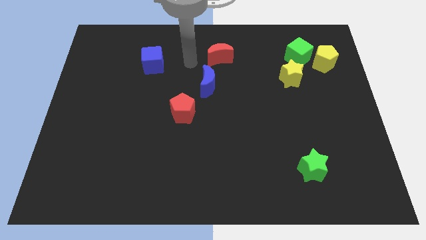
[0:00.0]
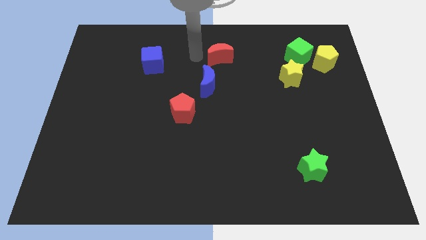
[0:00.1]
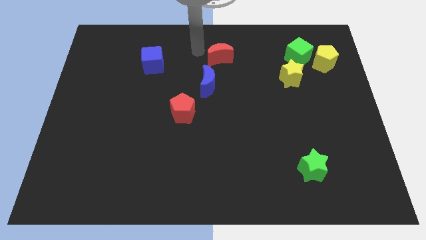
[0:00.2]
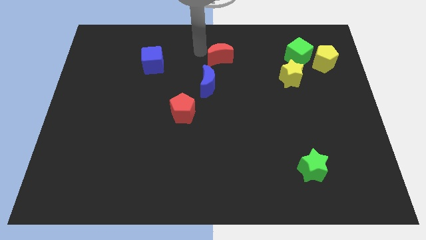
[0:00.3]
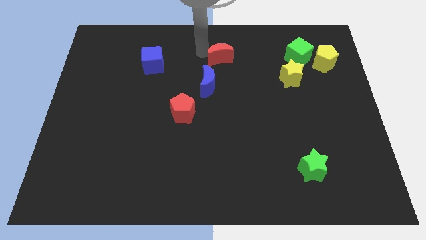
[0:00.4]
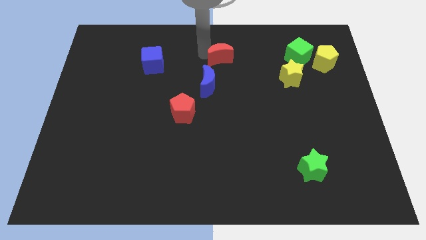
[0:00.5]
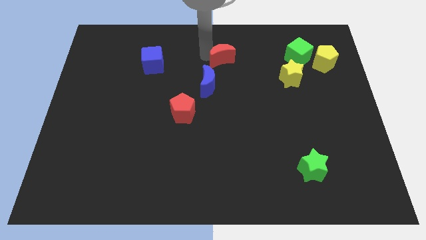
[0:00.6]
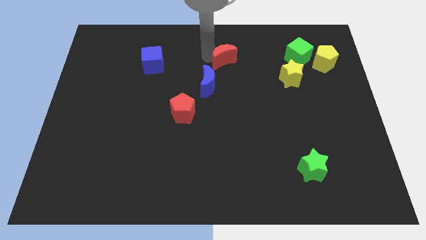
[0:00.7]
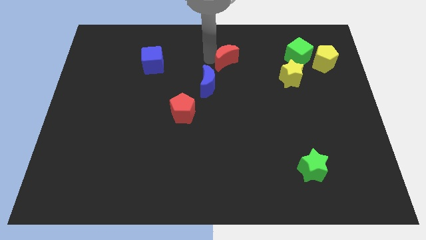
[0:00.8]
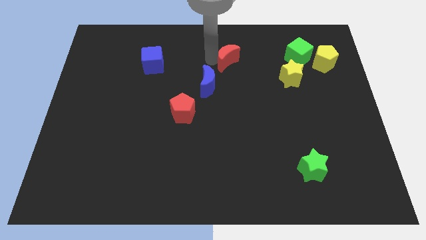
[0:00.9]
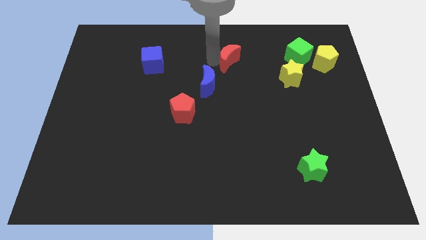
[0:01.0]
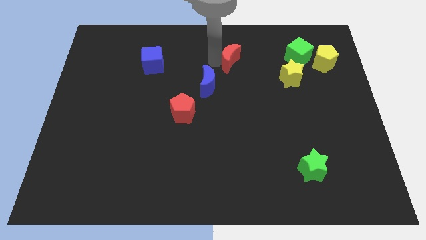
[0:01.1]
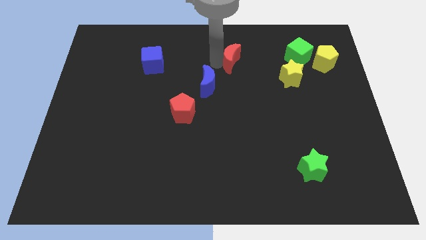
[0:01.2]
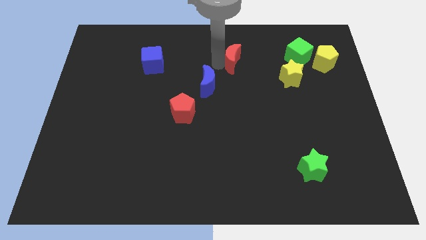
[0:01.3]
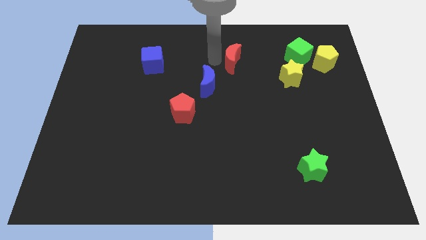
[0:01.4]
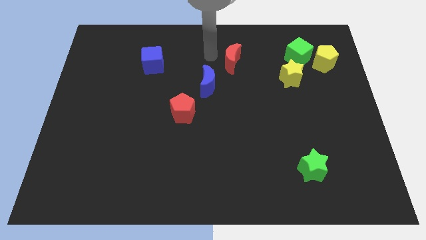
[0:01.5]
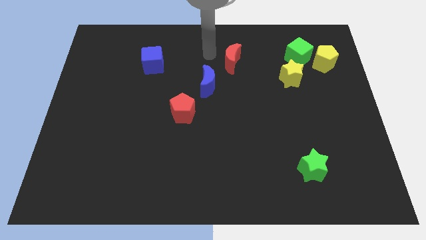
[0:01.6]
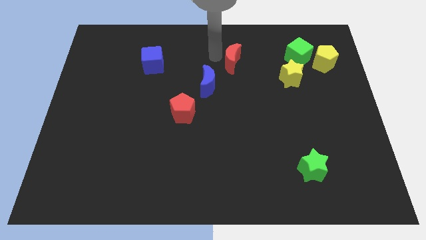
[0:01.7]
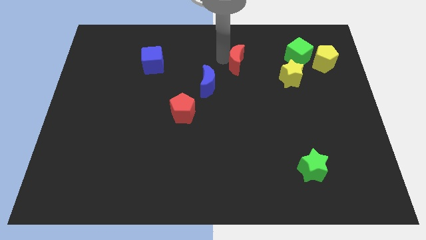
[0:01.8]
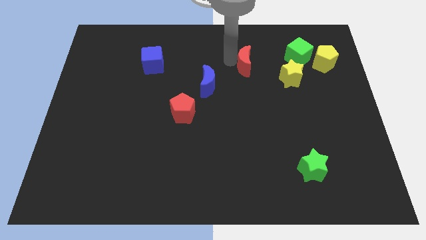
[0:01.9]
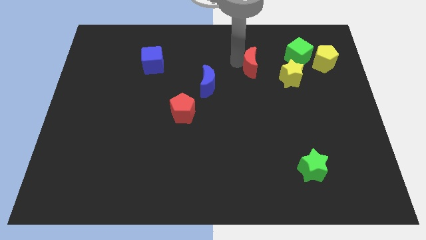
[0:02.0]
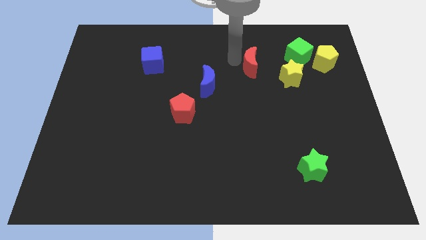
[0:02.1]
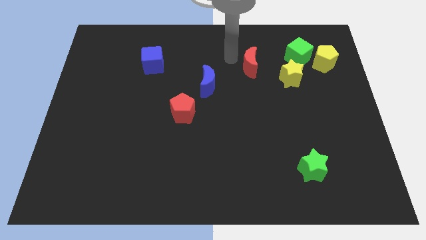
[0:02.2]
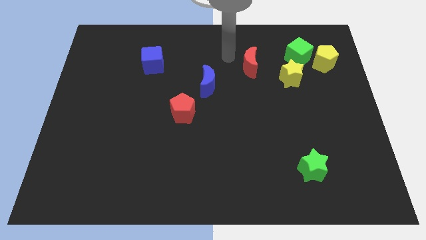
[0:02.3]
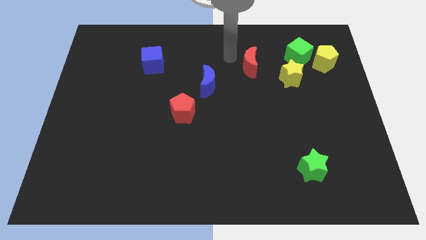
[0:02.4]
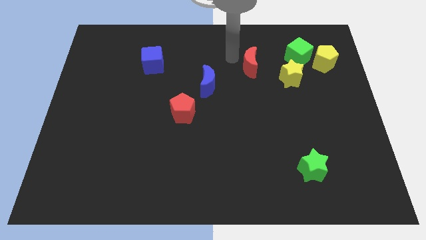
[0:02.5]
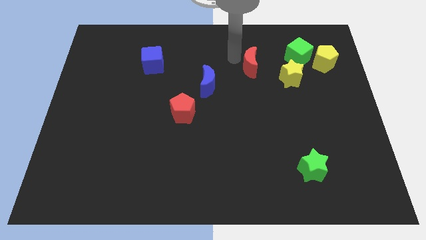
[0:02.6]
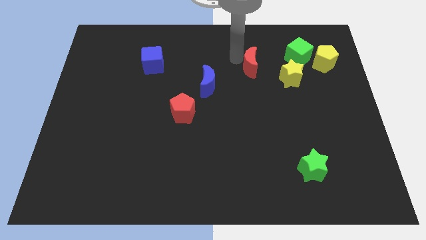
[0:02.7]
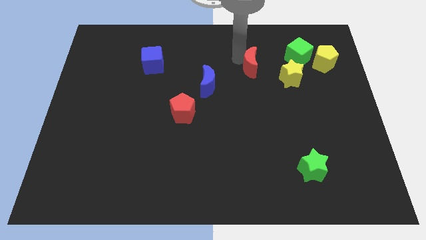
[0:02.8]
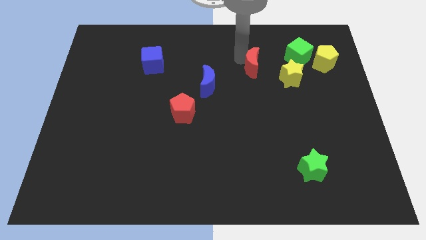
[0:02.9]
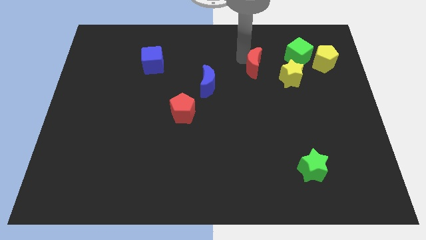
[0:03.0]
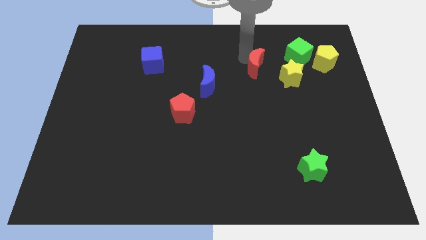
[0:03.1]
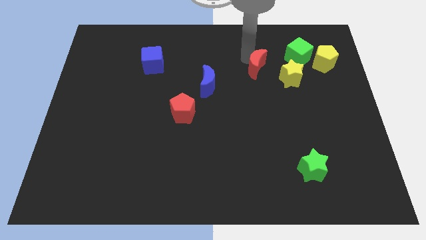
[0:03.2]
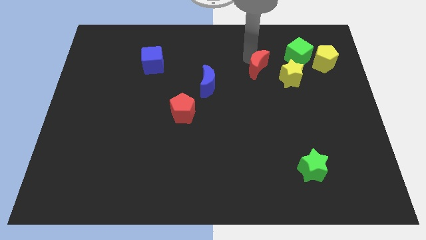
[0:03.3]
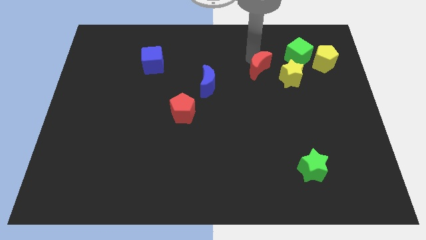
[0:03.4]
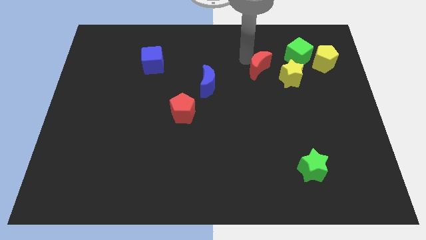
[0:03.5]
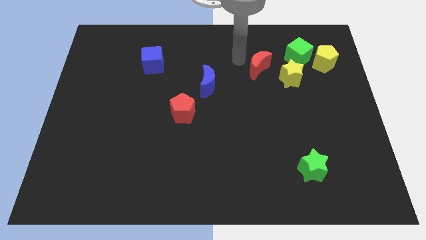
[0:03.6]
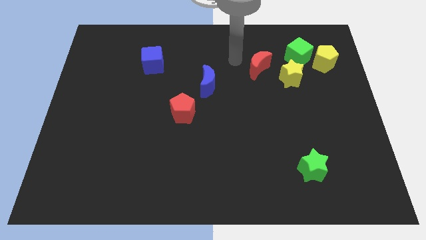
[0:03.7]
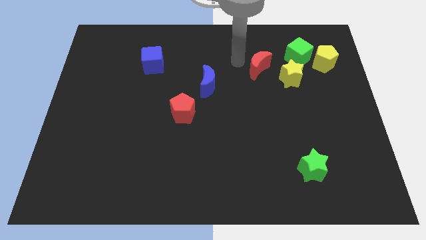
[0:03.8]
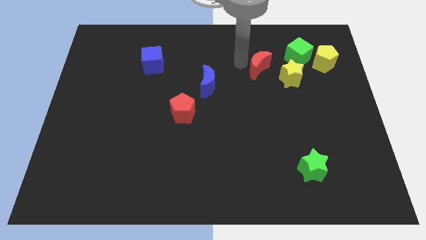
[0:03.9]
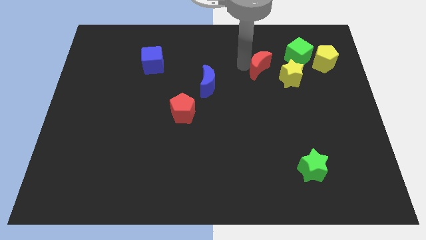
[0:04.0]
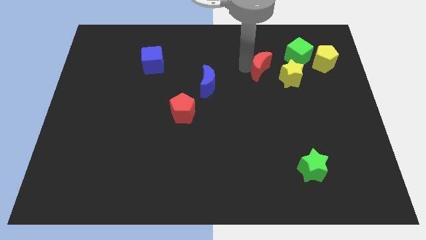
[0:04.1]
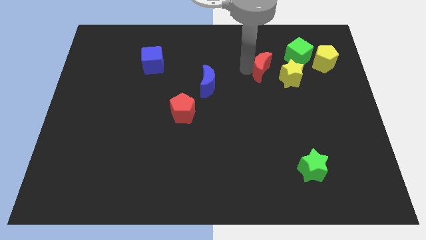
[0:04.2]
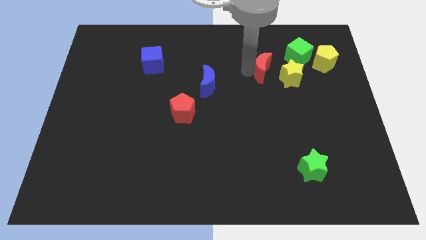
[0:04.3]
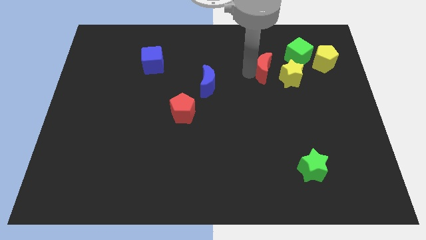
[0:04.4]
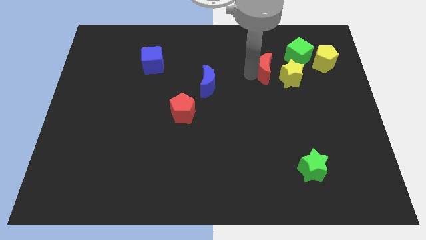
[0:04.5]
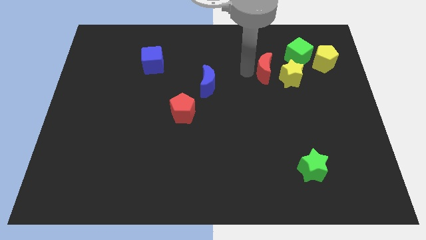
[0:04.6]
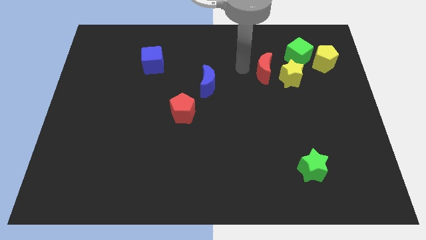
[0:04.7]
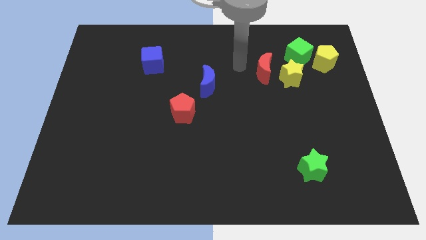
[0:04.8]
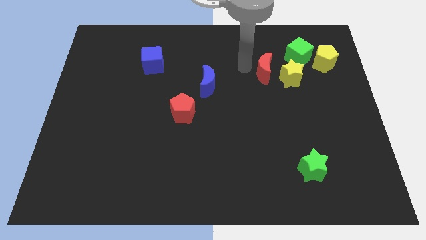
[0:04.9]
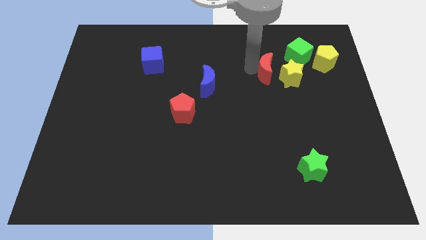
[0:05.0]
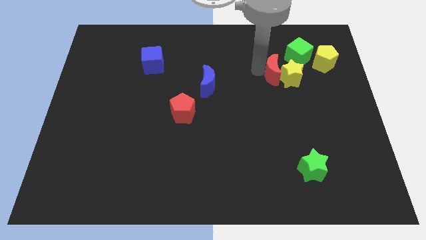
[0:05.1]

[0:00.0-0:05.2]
push the red moon next to the yellow star

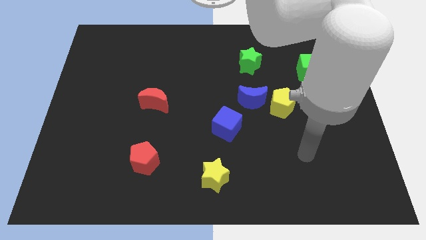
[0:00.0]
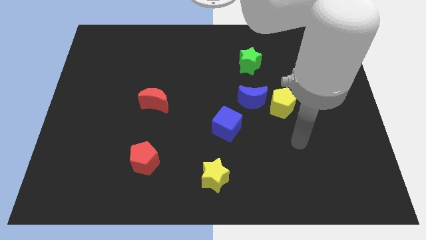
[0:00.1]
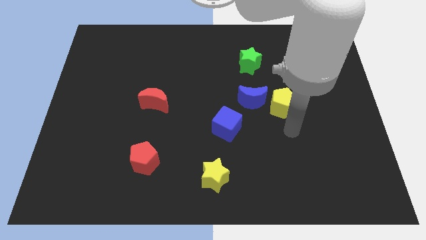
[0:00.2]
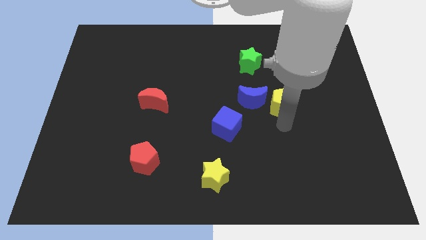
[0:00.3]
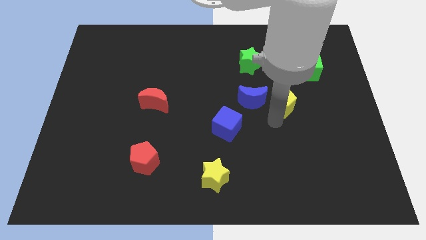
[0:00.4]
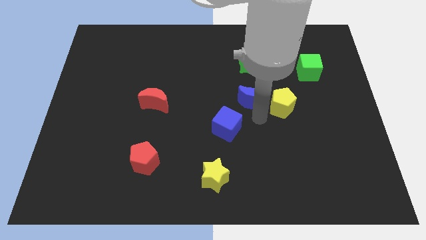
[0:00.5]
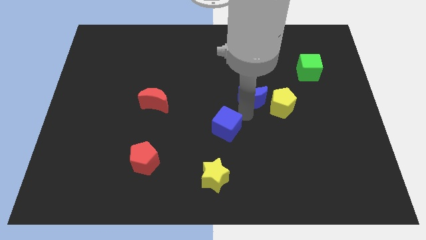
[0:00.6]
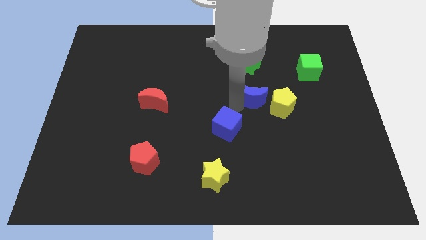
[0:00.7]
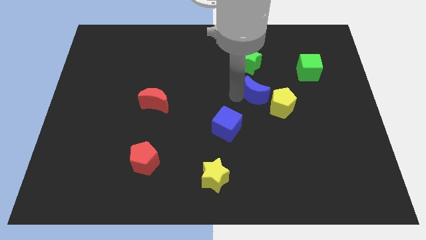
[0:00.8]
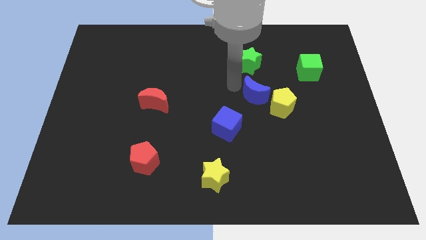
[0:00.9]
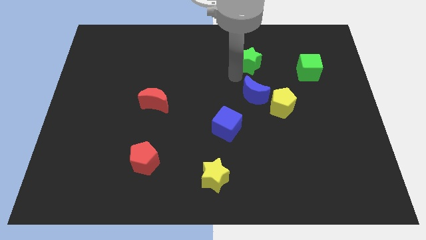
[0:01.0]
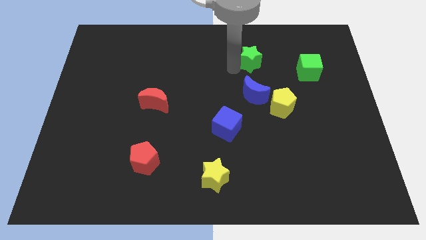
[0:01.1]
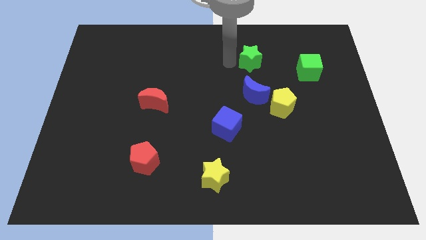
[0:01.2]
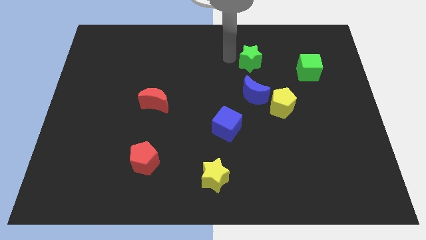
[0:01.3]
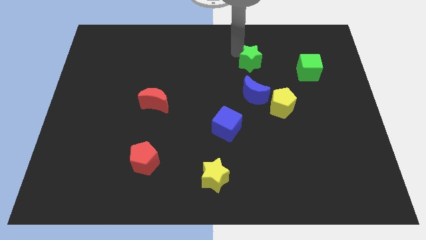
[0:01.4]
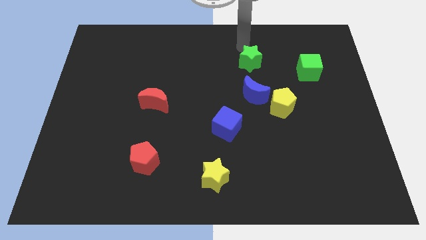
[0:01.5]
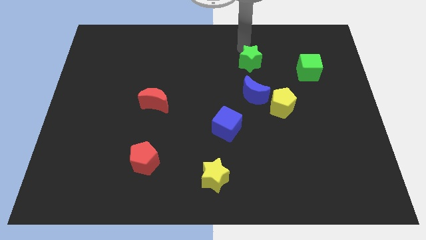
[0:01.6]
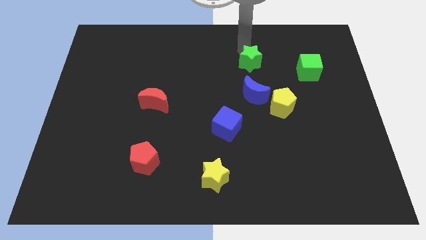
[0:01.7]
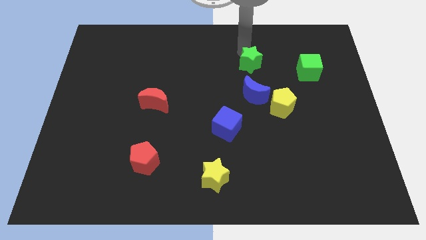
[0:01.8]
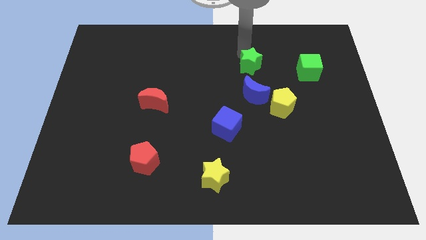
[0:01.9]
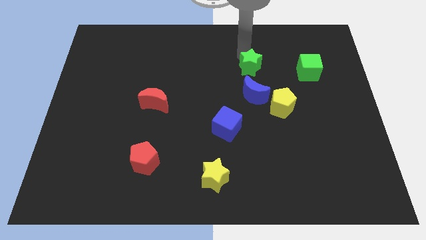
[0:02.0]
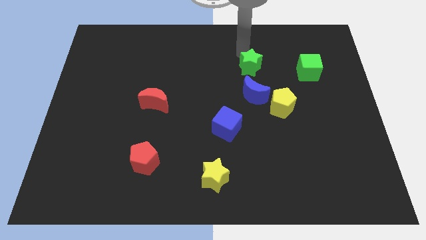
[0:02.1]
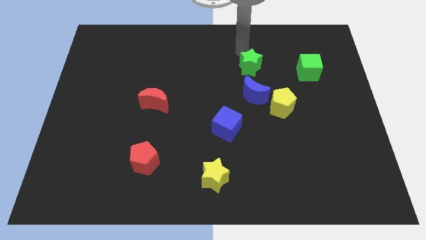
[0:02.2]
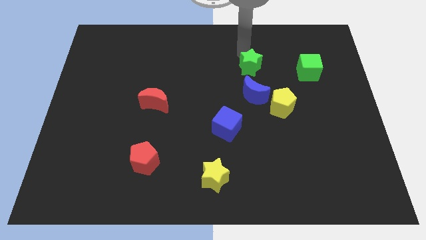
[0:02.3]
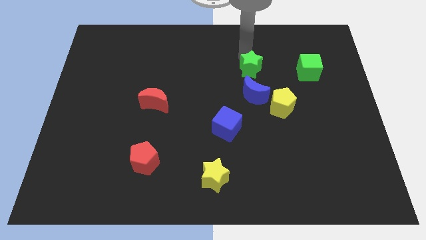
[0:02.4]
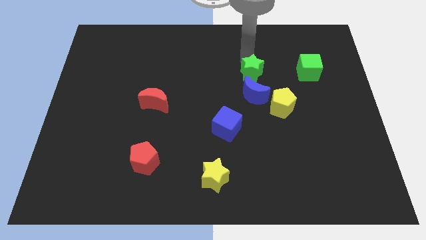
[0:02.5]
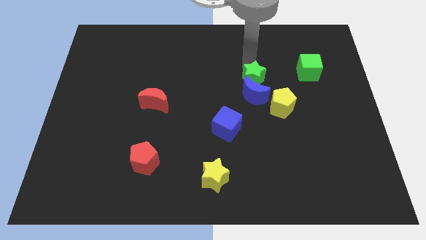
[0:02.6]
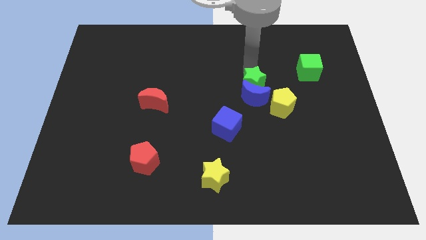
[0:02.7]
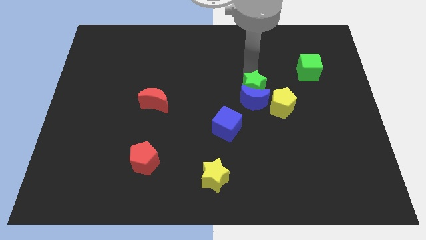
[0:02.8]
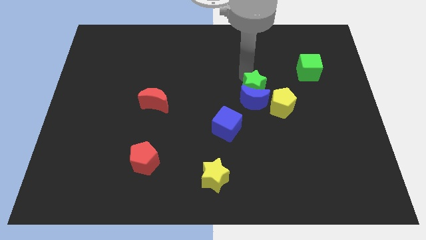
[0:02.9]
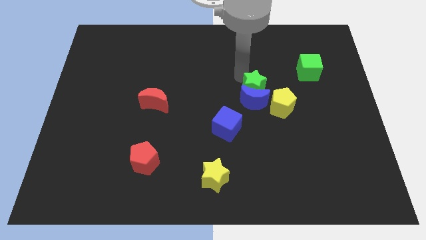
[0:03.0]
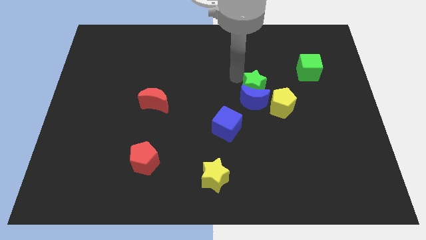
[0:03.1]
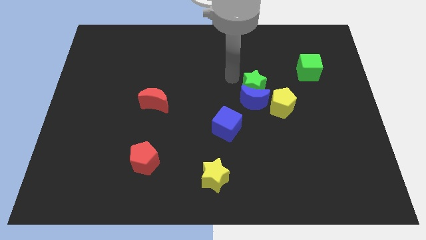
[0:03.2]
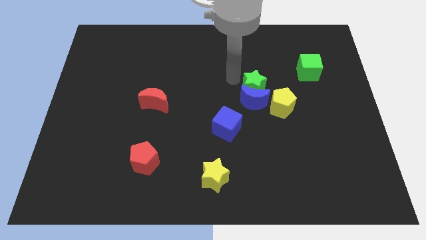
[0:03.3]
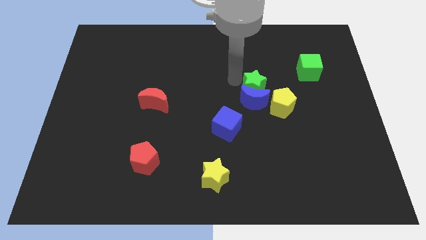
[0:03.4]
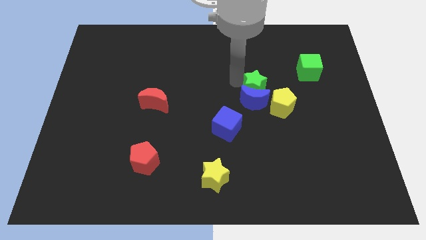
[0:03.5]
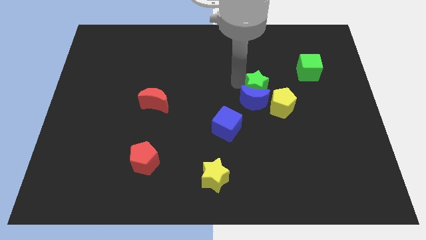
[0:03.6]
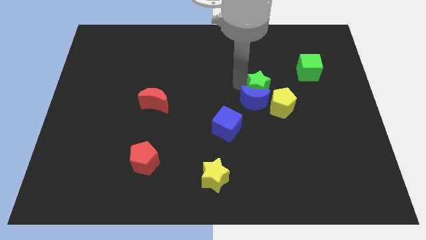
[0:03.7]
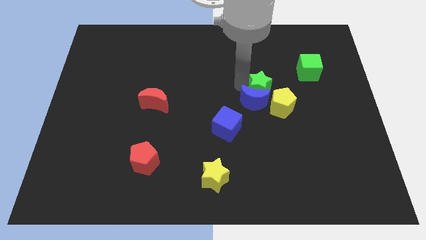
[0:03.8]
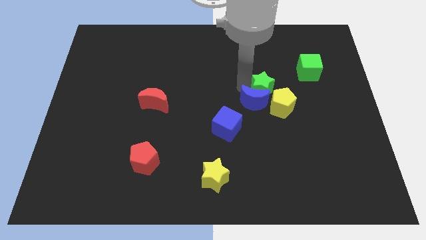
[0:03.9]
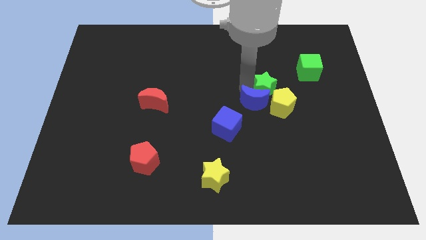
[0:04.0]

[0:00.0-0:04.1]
put the green star close to the yellow pentagon
